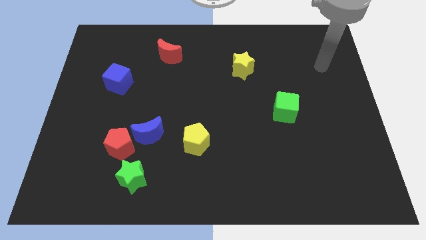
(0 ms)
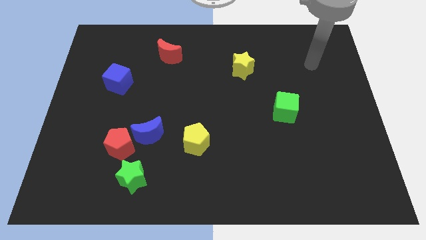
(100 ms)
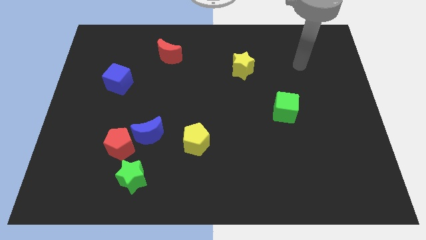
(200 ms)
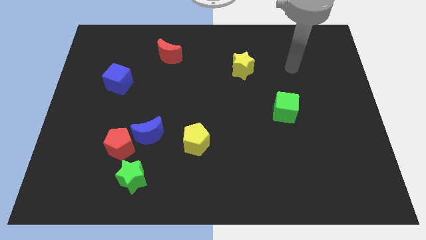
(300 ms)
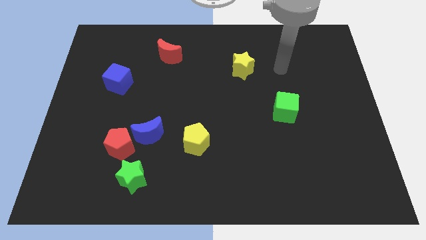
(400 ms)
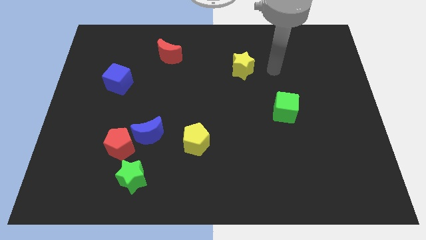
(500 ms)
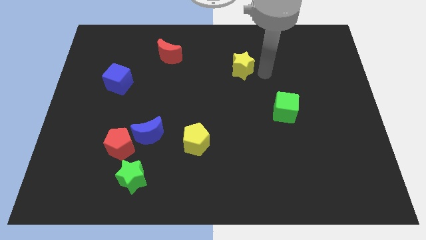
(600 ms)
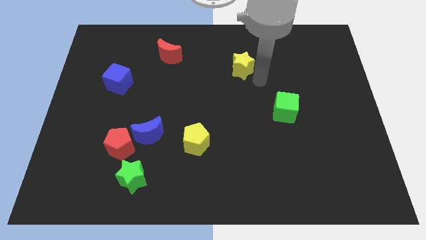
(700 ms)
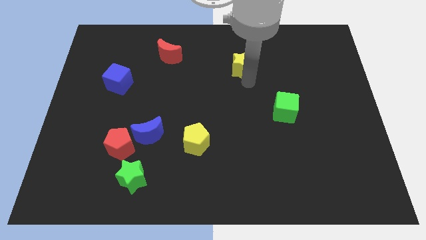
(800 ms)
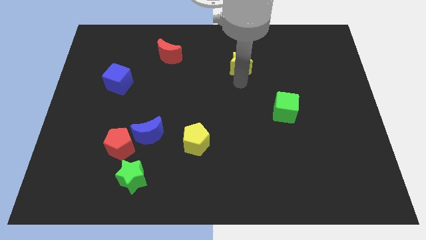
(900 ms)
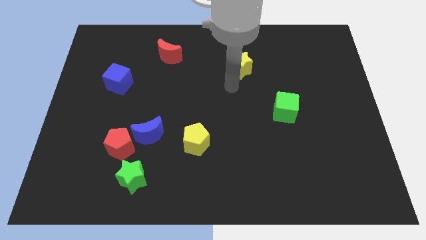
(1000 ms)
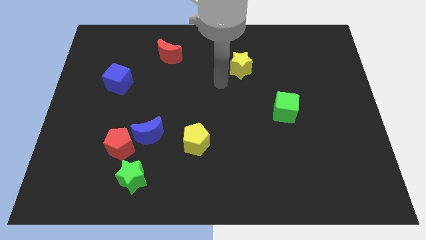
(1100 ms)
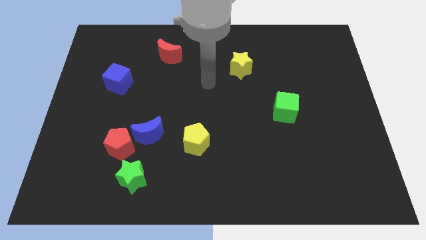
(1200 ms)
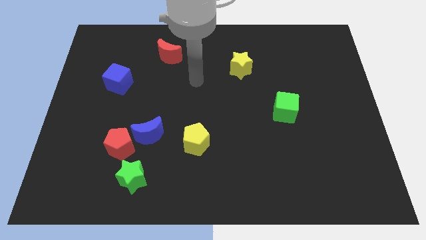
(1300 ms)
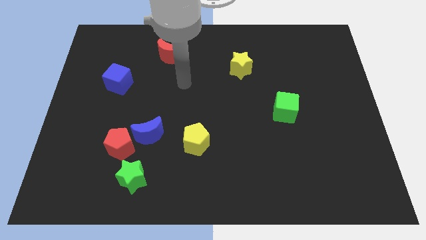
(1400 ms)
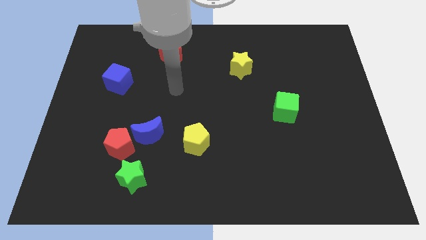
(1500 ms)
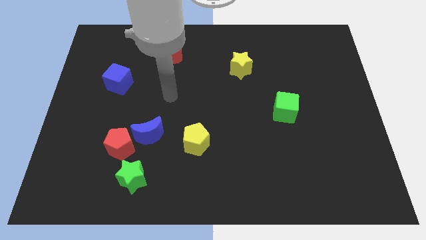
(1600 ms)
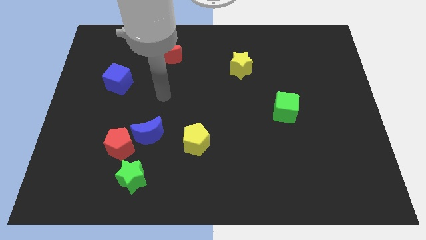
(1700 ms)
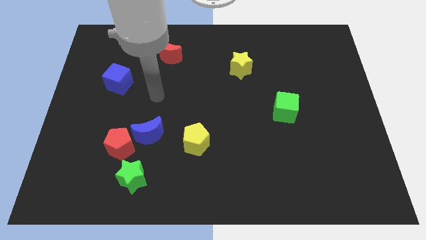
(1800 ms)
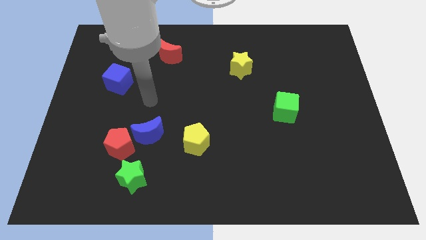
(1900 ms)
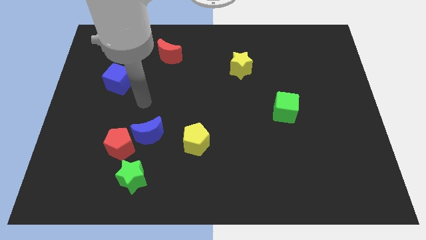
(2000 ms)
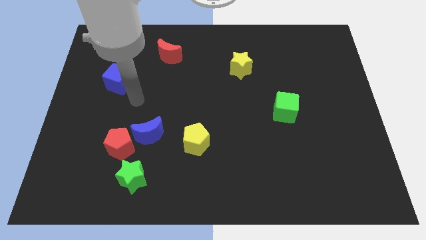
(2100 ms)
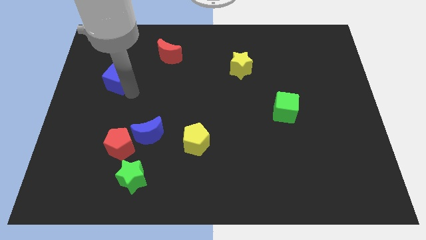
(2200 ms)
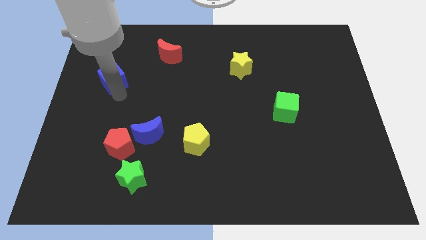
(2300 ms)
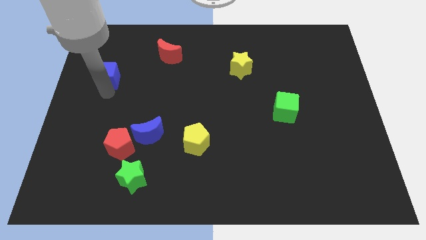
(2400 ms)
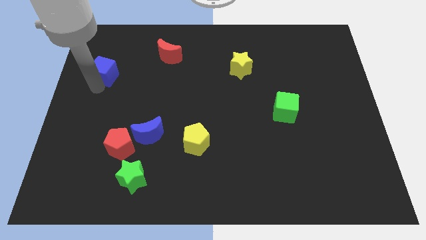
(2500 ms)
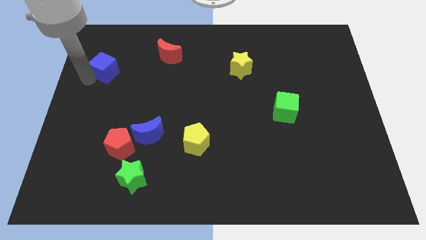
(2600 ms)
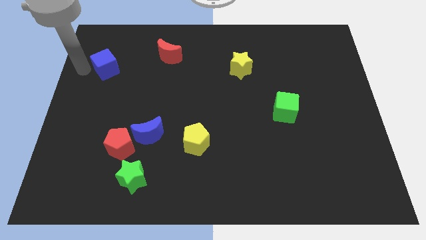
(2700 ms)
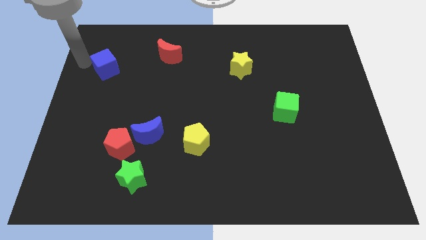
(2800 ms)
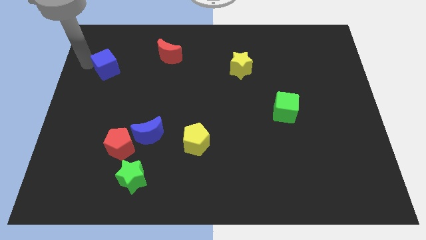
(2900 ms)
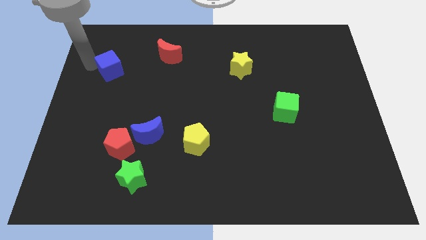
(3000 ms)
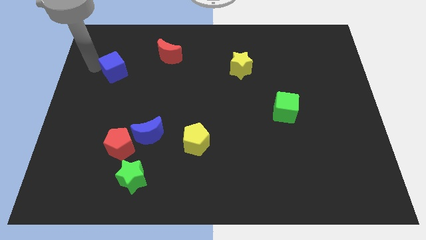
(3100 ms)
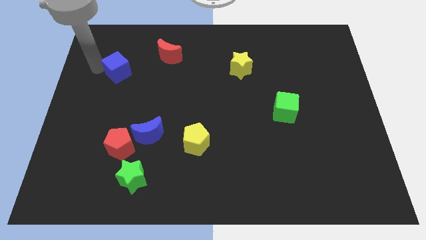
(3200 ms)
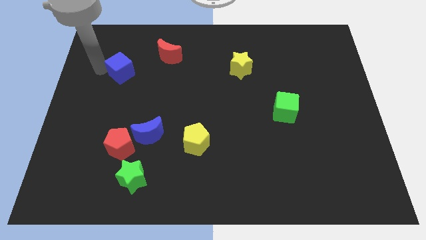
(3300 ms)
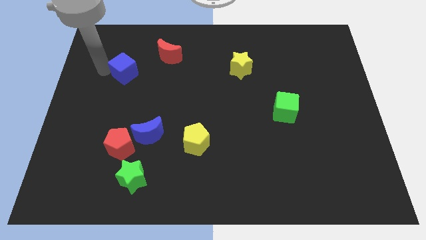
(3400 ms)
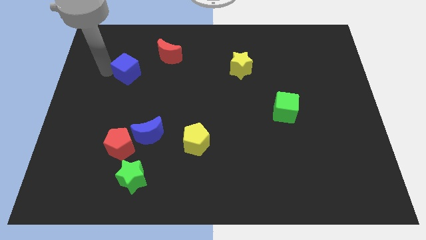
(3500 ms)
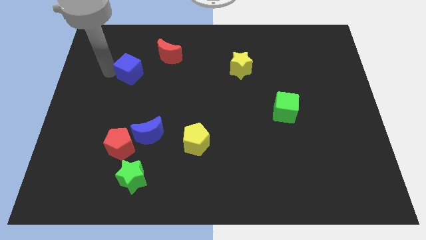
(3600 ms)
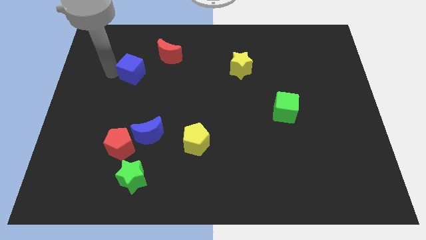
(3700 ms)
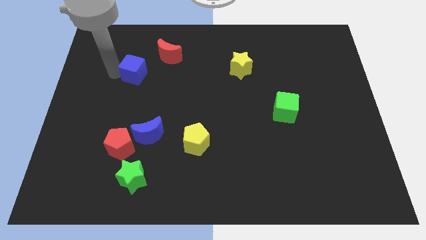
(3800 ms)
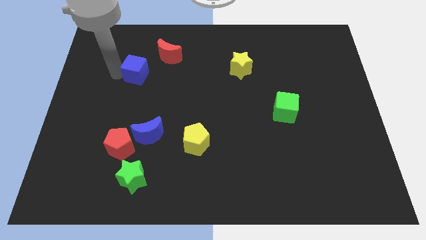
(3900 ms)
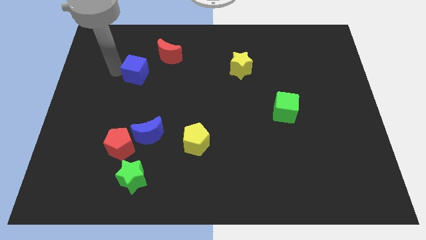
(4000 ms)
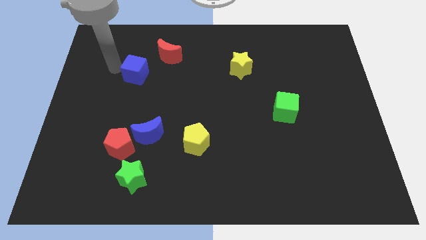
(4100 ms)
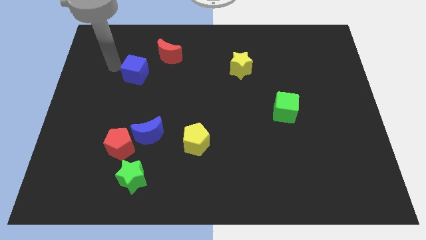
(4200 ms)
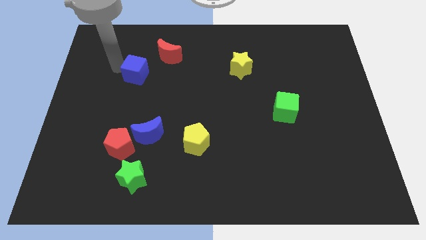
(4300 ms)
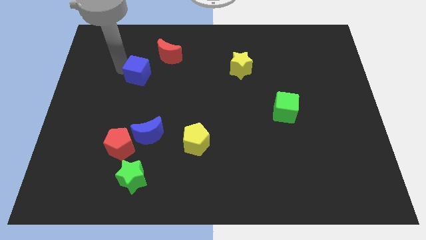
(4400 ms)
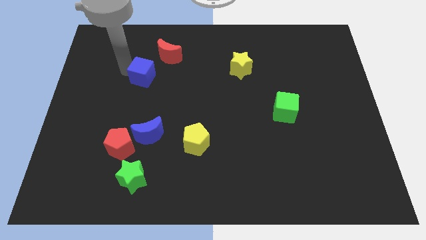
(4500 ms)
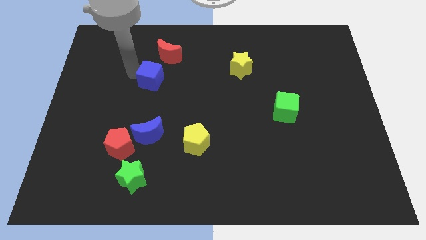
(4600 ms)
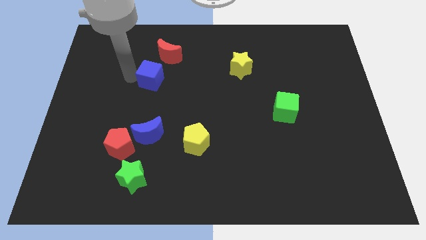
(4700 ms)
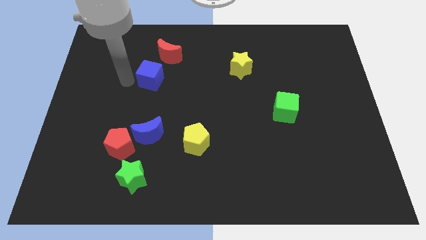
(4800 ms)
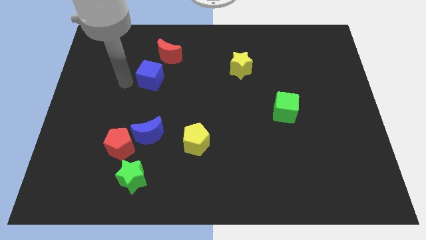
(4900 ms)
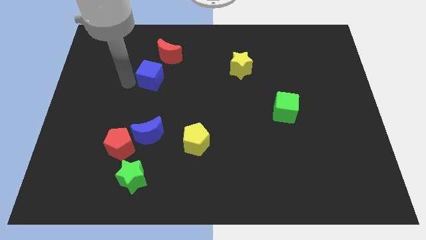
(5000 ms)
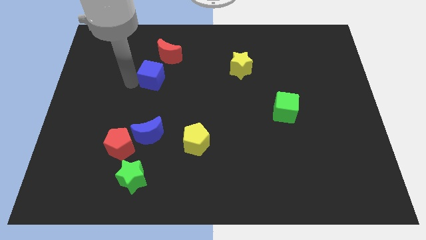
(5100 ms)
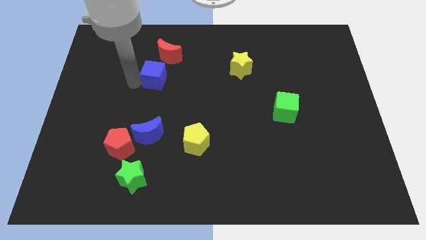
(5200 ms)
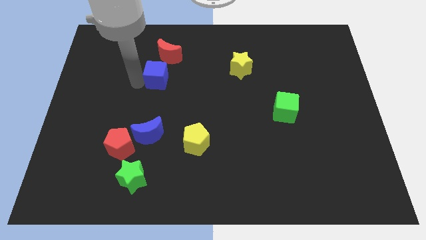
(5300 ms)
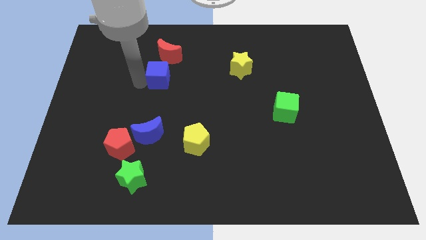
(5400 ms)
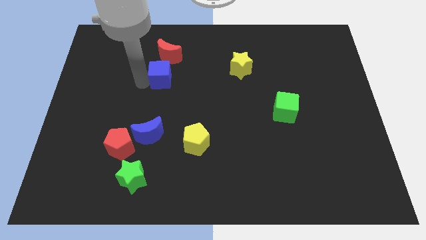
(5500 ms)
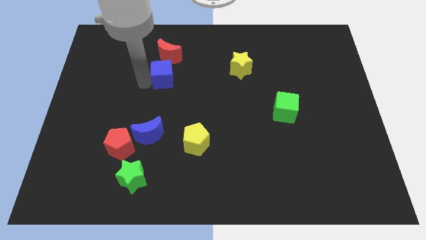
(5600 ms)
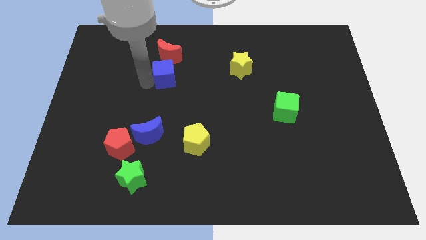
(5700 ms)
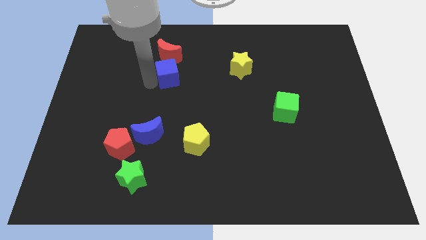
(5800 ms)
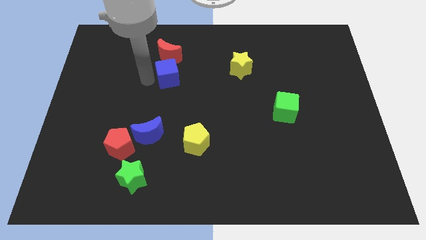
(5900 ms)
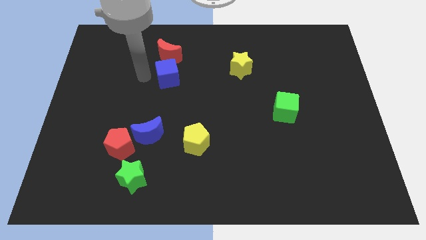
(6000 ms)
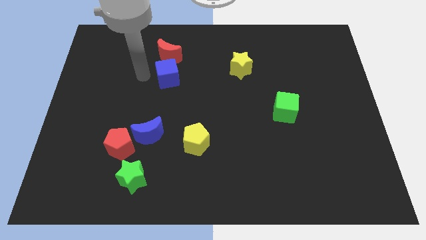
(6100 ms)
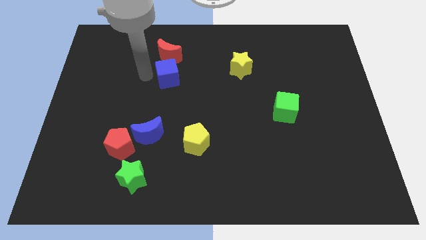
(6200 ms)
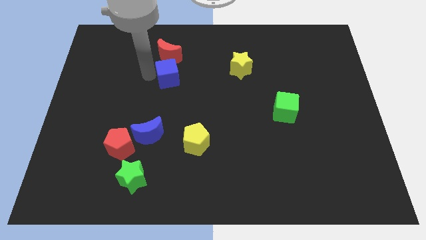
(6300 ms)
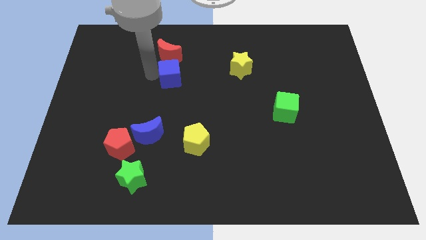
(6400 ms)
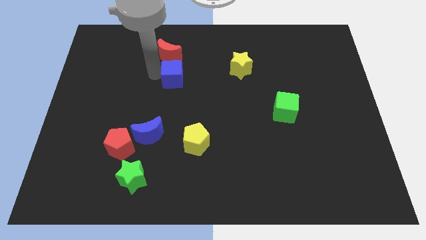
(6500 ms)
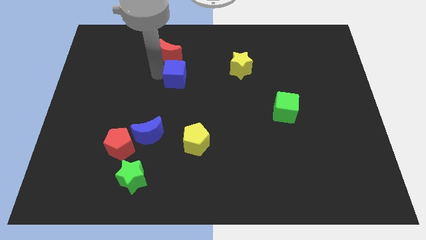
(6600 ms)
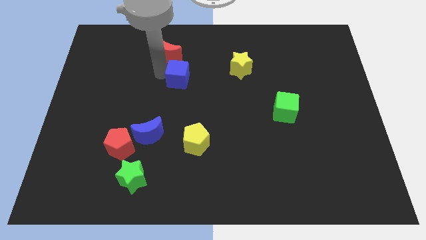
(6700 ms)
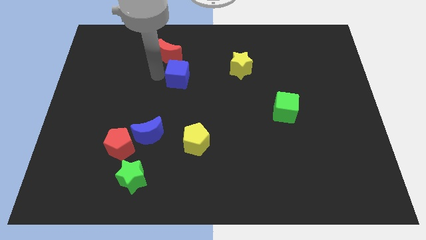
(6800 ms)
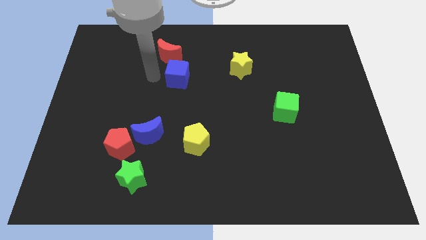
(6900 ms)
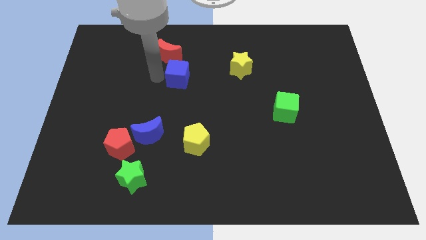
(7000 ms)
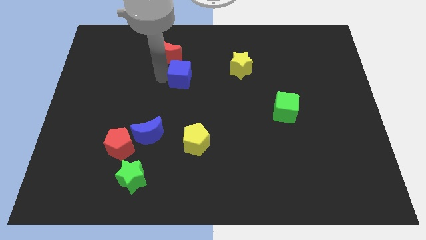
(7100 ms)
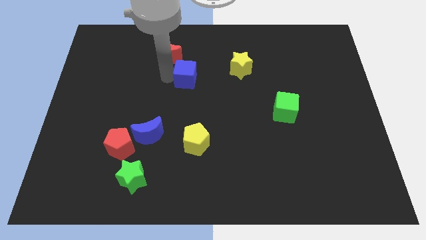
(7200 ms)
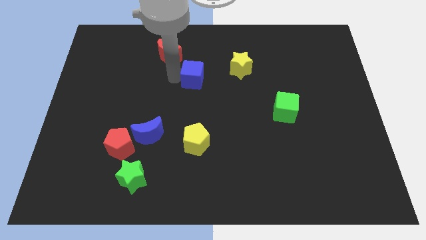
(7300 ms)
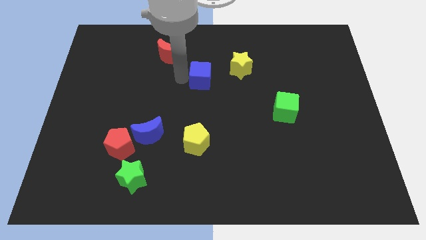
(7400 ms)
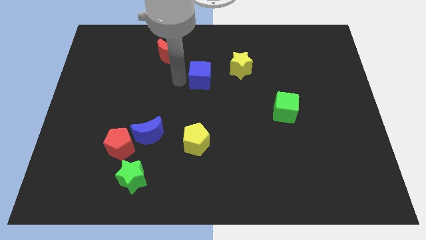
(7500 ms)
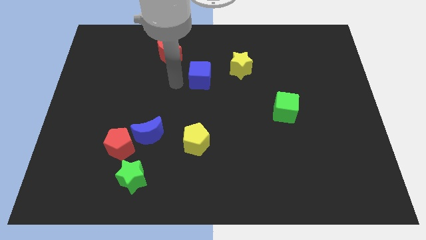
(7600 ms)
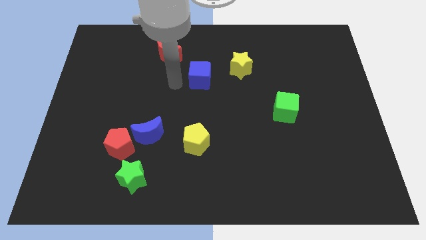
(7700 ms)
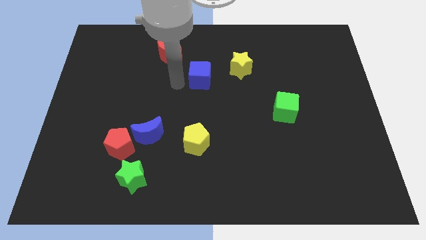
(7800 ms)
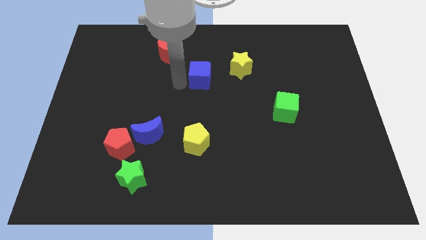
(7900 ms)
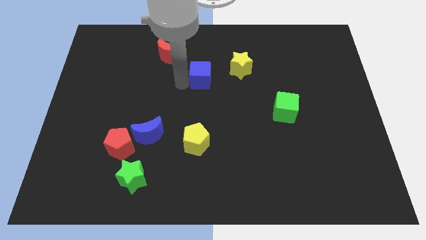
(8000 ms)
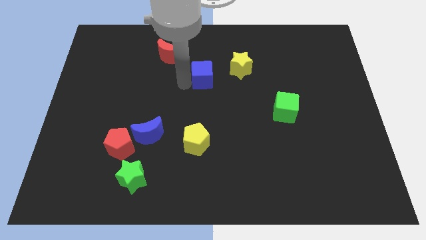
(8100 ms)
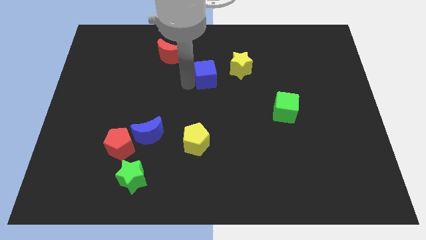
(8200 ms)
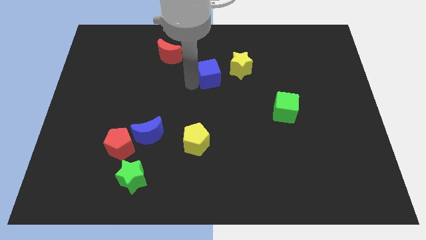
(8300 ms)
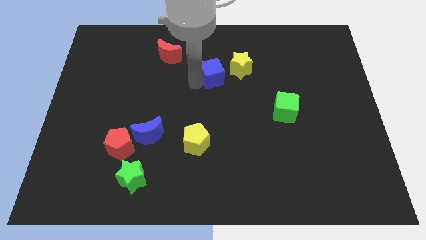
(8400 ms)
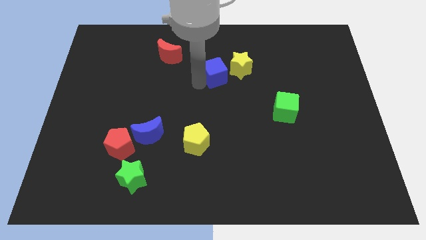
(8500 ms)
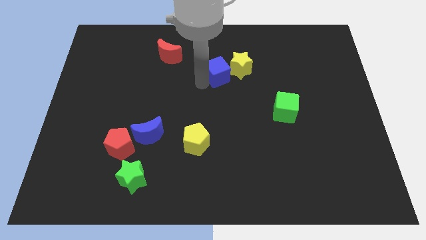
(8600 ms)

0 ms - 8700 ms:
slide the blue cube towards the yellow star

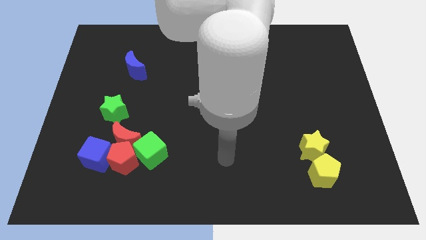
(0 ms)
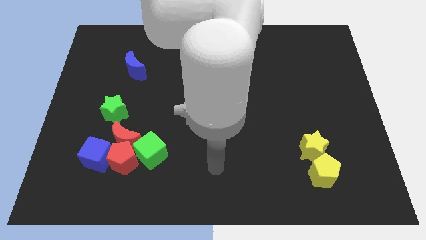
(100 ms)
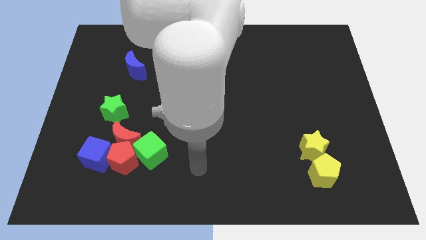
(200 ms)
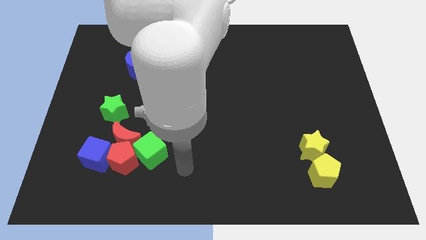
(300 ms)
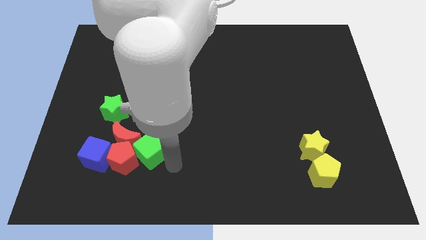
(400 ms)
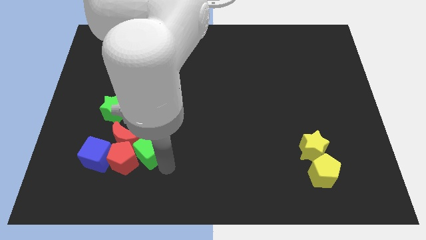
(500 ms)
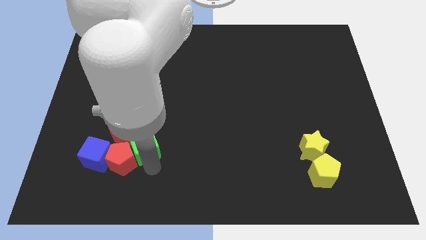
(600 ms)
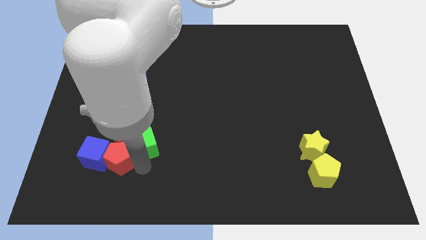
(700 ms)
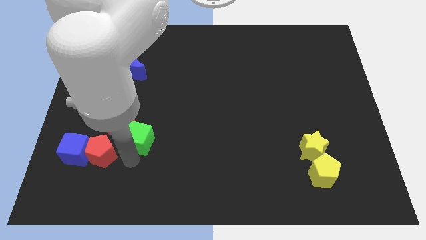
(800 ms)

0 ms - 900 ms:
put the red moon next to the green star
